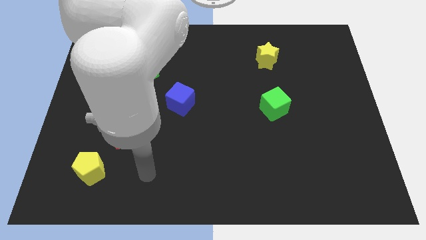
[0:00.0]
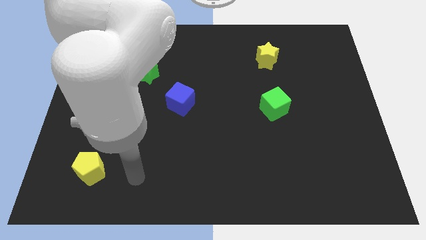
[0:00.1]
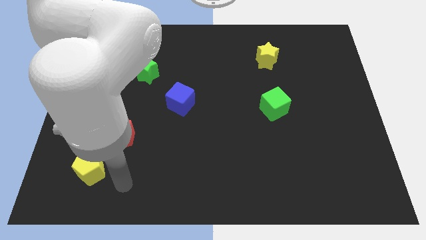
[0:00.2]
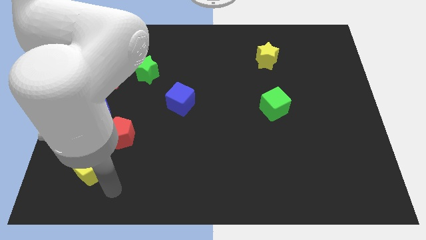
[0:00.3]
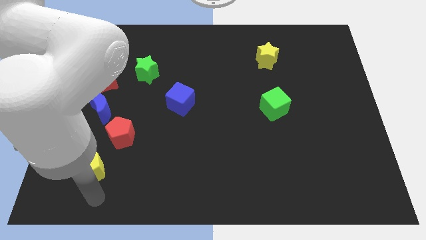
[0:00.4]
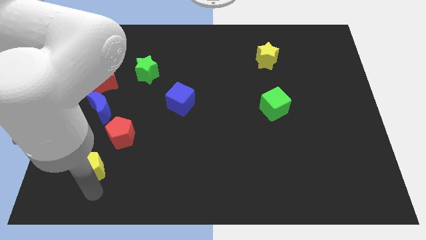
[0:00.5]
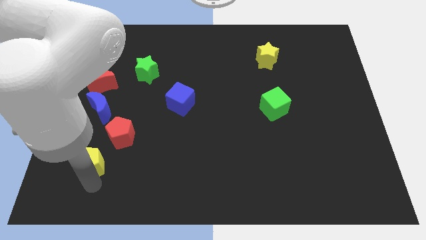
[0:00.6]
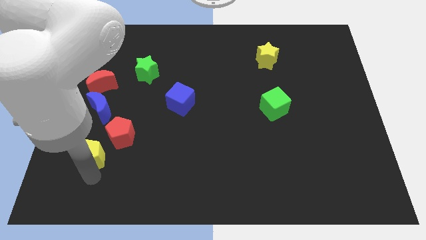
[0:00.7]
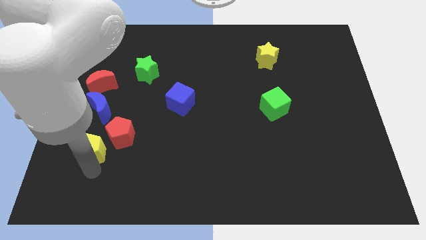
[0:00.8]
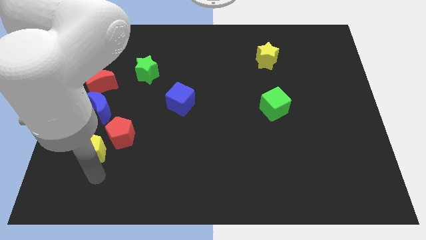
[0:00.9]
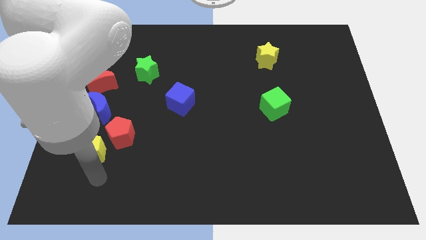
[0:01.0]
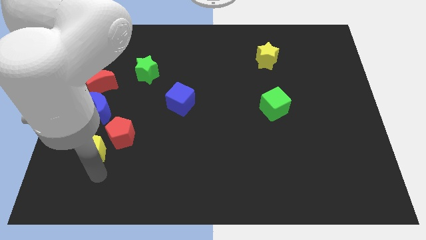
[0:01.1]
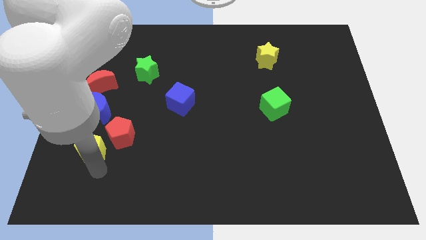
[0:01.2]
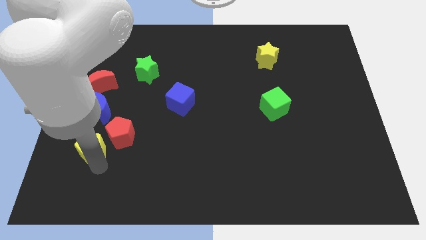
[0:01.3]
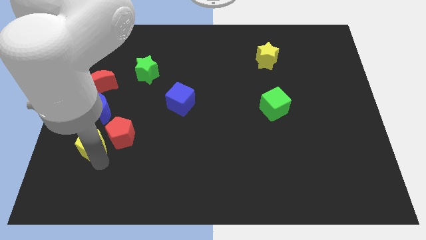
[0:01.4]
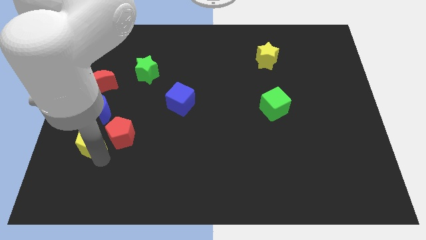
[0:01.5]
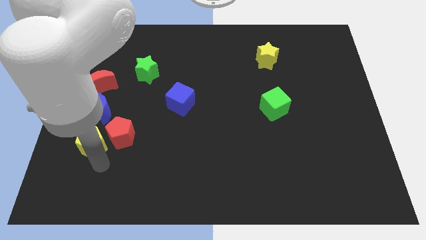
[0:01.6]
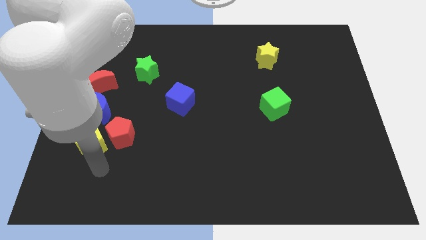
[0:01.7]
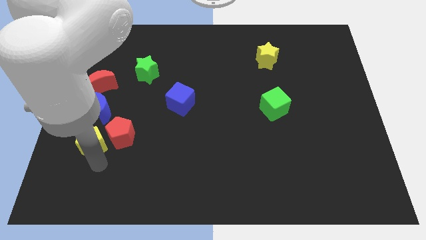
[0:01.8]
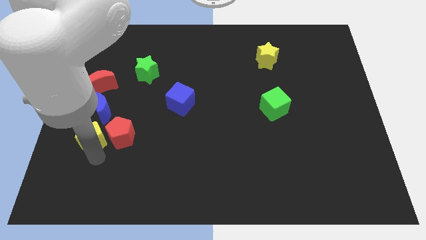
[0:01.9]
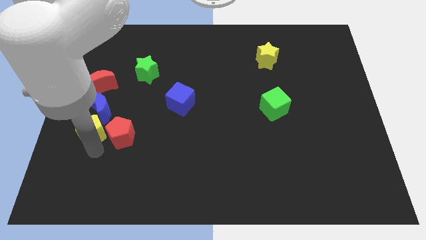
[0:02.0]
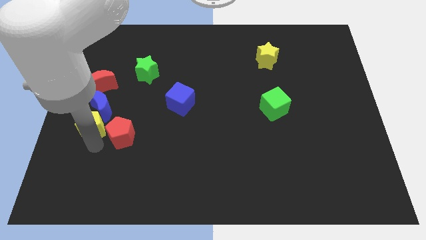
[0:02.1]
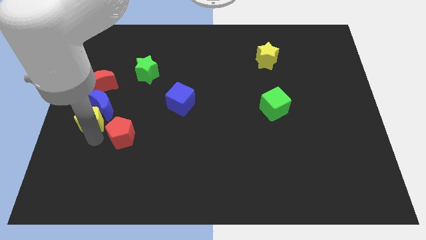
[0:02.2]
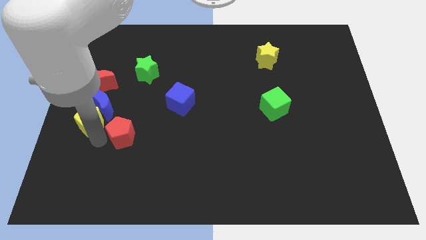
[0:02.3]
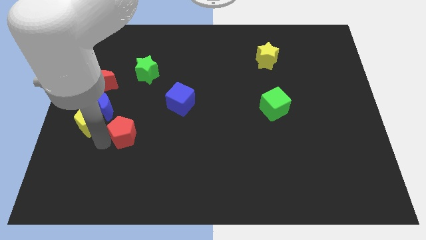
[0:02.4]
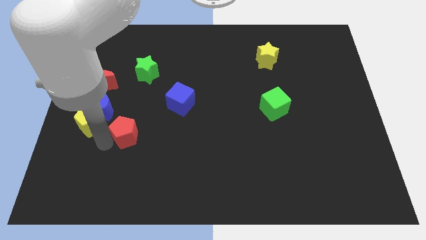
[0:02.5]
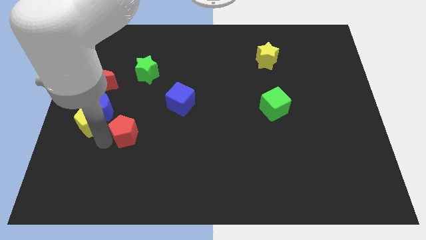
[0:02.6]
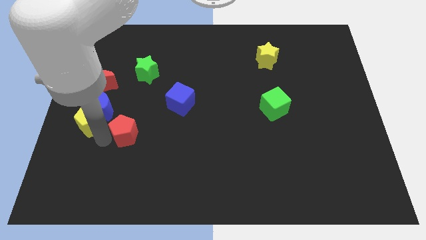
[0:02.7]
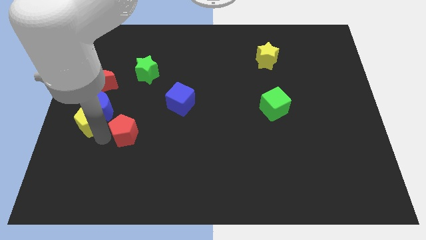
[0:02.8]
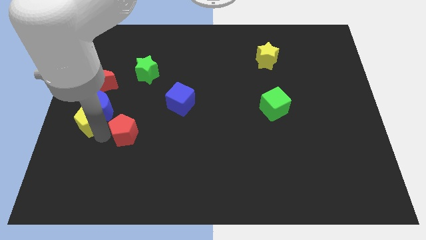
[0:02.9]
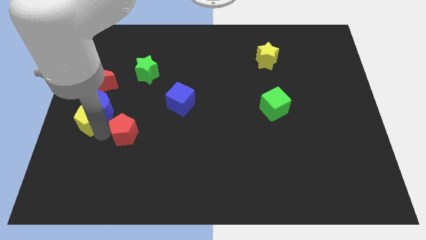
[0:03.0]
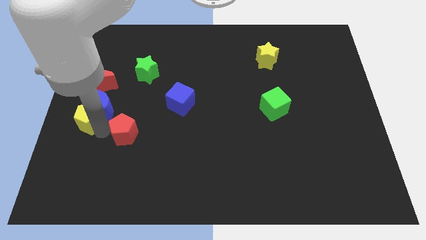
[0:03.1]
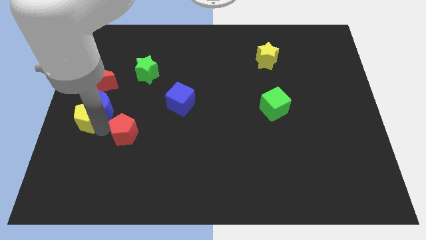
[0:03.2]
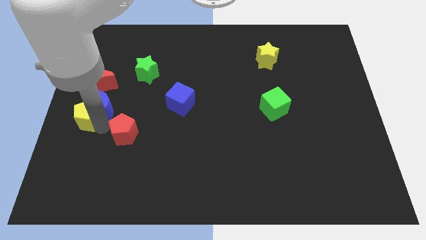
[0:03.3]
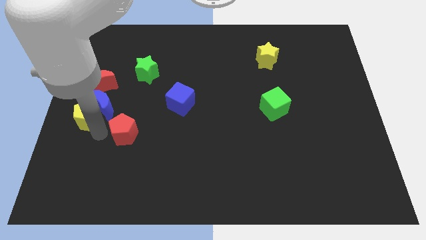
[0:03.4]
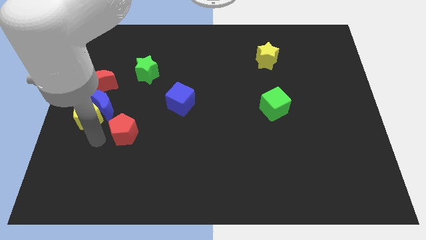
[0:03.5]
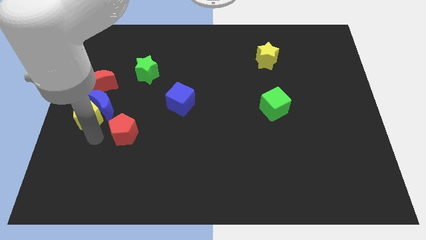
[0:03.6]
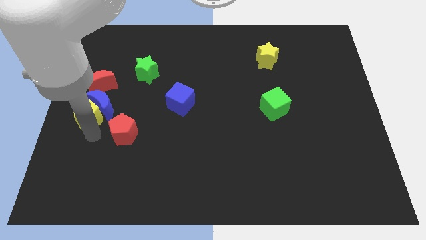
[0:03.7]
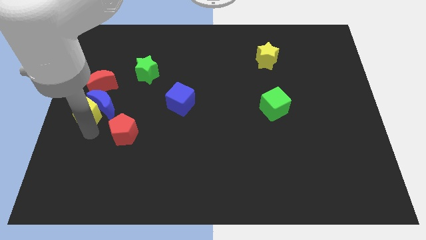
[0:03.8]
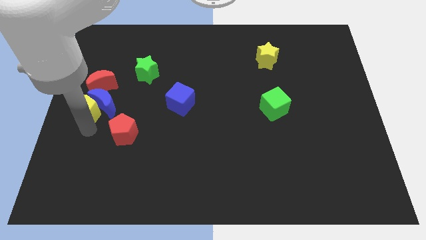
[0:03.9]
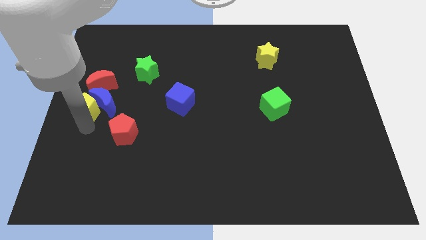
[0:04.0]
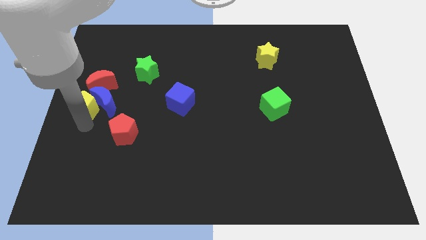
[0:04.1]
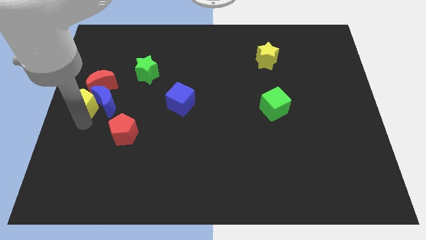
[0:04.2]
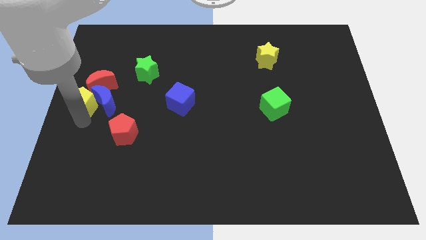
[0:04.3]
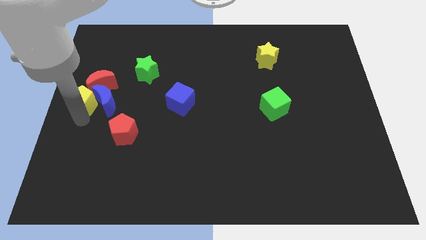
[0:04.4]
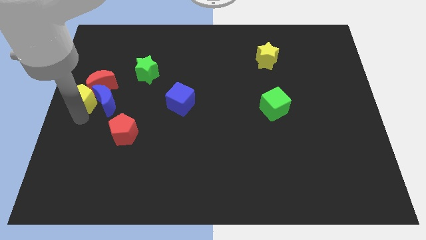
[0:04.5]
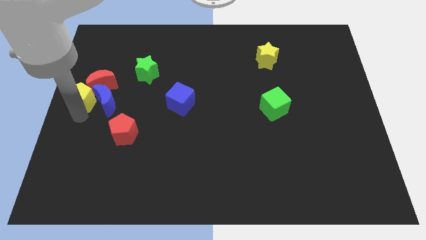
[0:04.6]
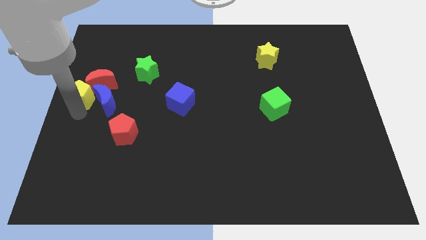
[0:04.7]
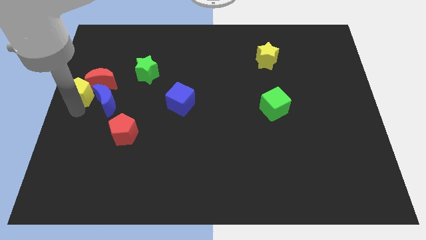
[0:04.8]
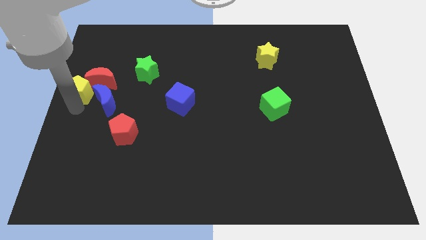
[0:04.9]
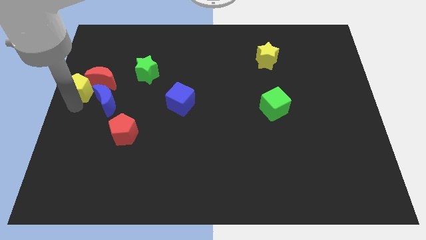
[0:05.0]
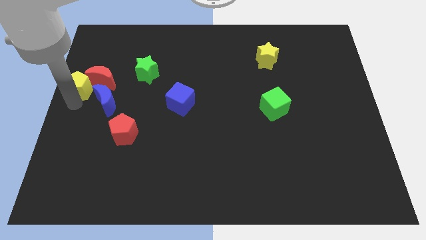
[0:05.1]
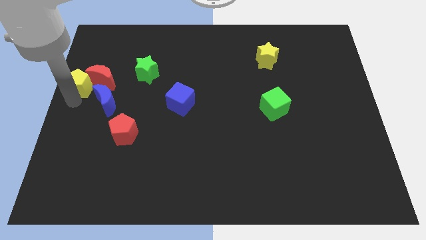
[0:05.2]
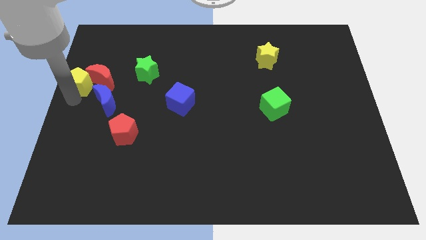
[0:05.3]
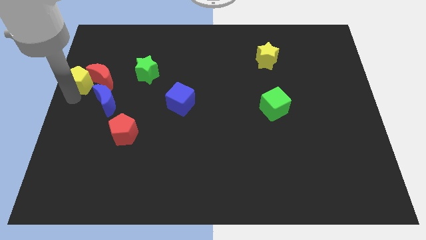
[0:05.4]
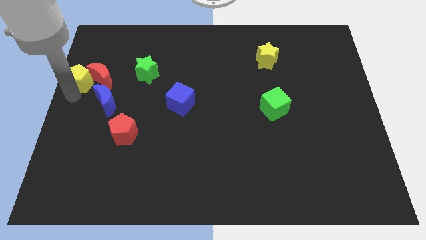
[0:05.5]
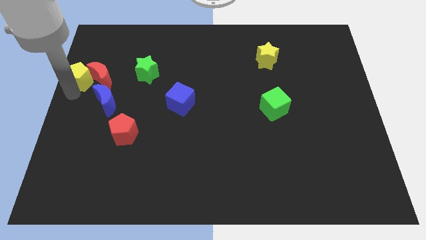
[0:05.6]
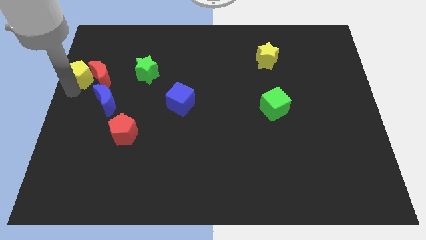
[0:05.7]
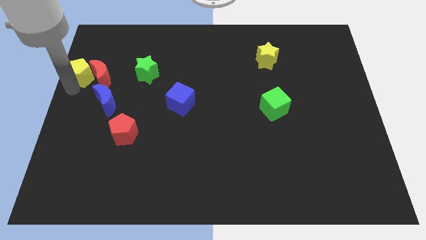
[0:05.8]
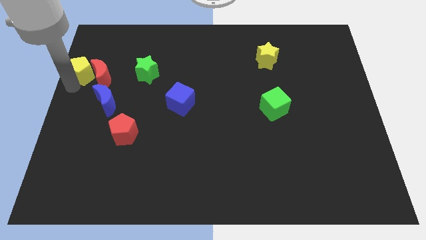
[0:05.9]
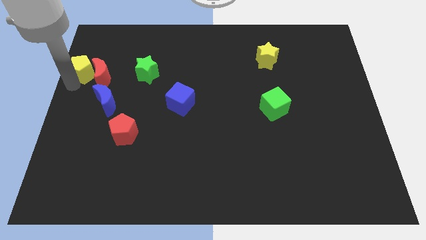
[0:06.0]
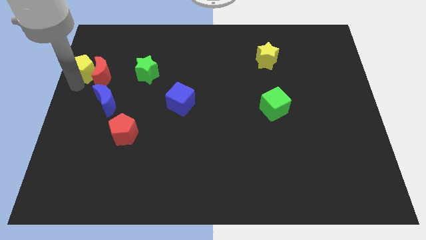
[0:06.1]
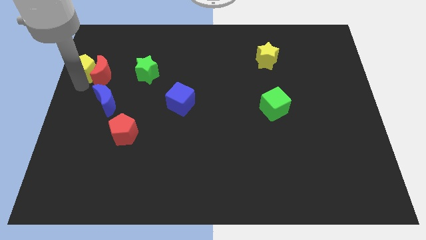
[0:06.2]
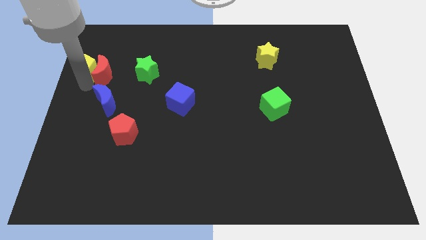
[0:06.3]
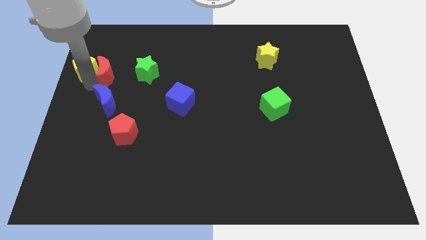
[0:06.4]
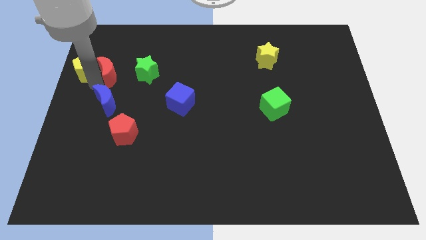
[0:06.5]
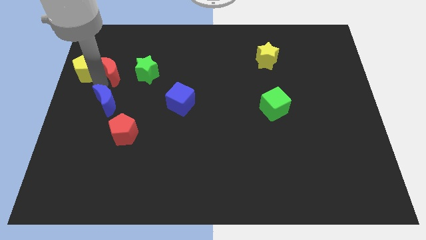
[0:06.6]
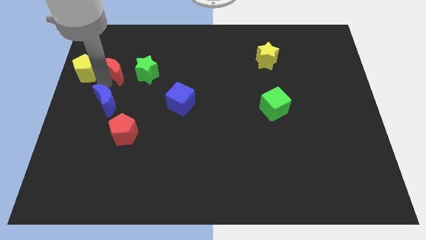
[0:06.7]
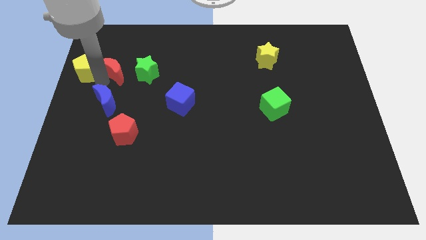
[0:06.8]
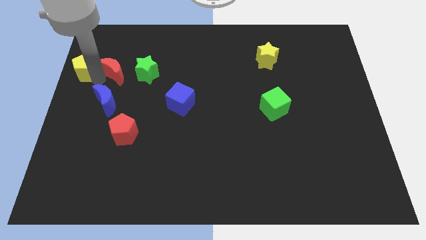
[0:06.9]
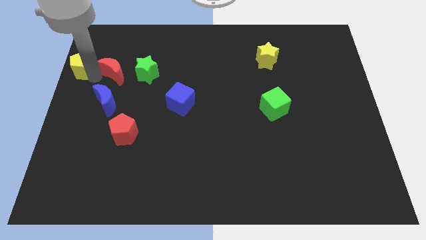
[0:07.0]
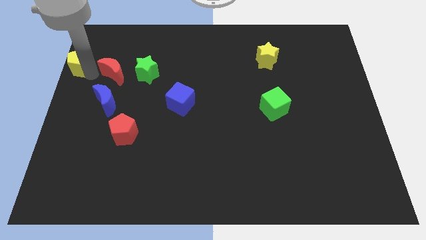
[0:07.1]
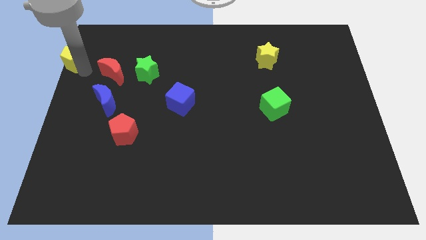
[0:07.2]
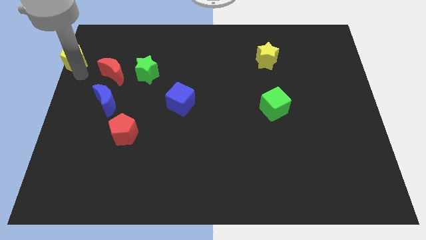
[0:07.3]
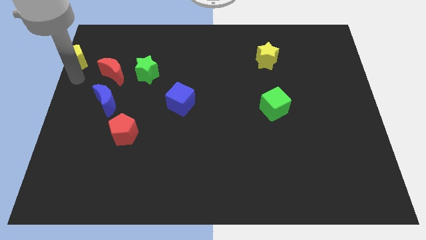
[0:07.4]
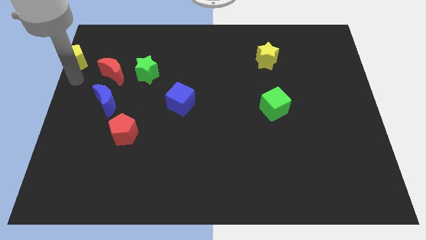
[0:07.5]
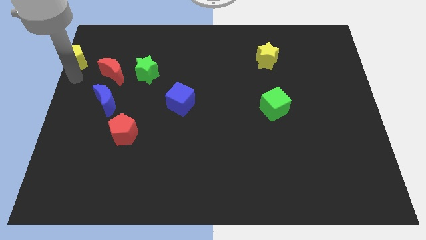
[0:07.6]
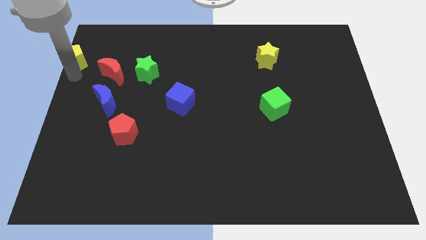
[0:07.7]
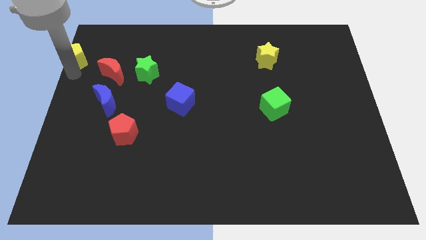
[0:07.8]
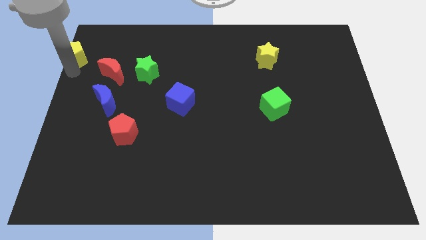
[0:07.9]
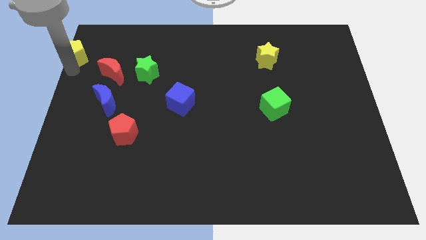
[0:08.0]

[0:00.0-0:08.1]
move the yellow pentagon to the top left
